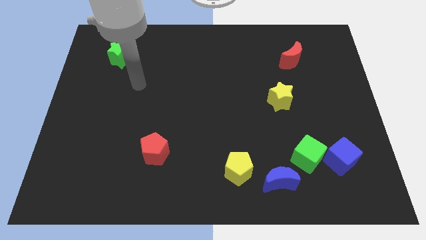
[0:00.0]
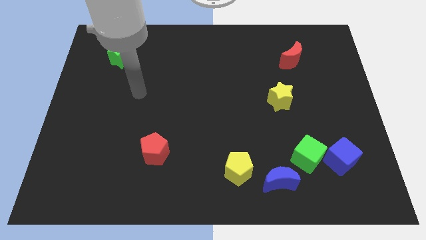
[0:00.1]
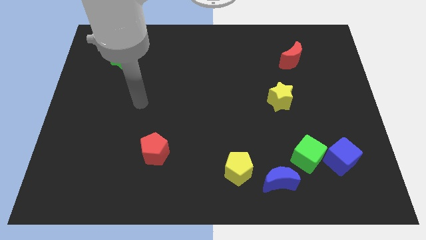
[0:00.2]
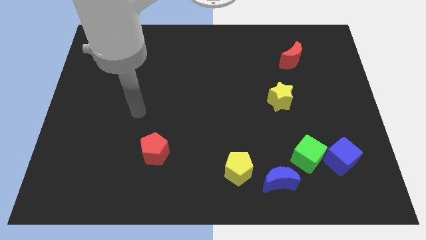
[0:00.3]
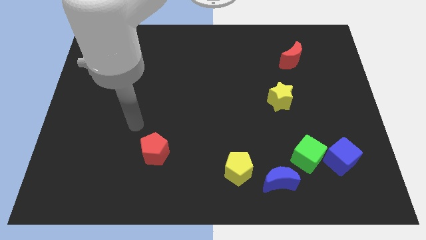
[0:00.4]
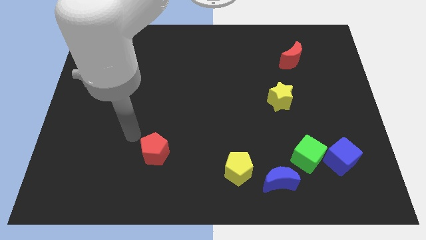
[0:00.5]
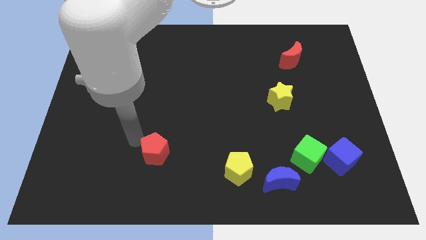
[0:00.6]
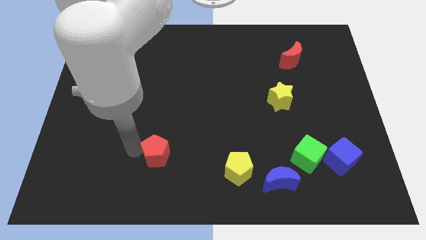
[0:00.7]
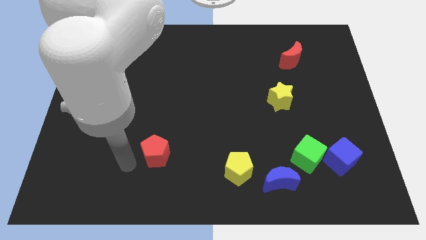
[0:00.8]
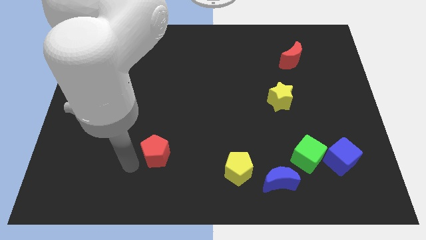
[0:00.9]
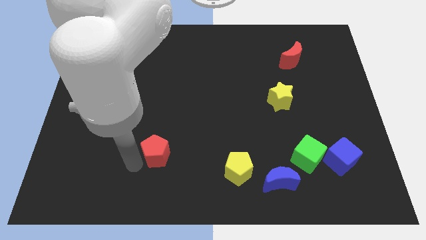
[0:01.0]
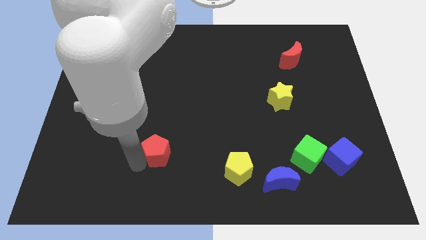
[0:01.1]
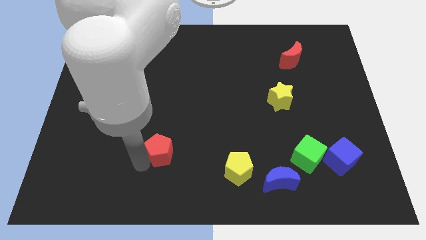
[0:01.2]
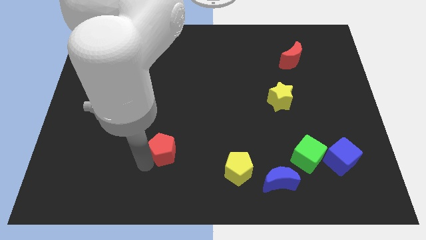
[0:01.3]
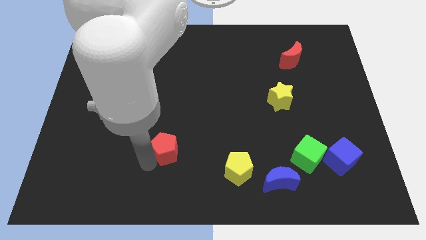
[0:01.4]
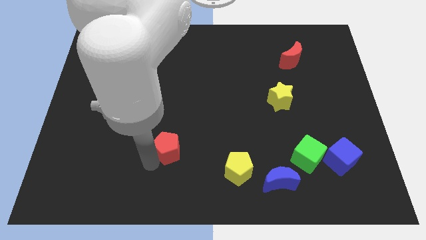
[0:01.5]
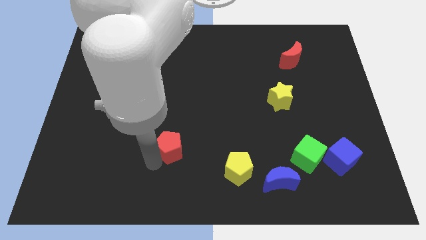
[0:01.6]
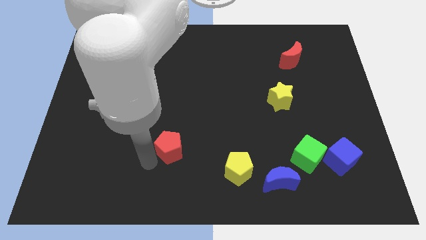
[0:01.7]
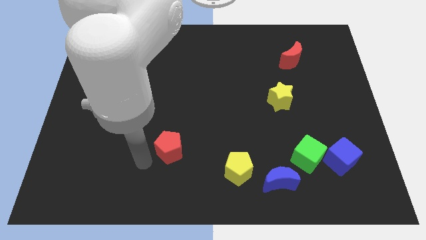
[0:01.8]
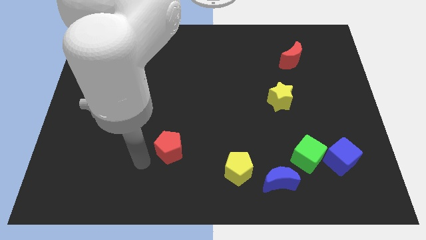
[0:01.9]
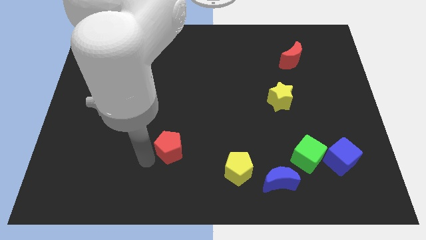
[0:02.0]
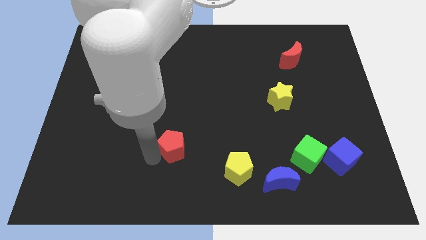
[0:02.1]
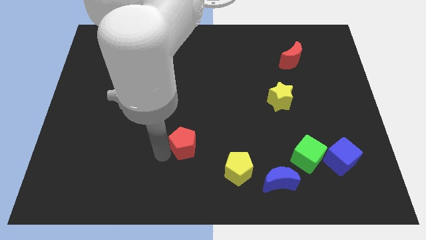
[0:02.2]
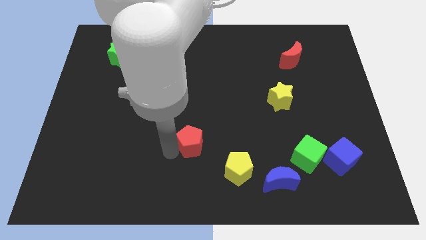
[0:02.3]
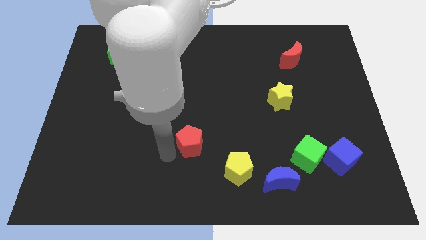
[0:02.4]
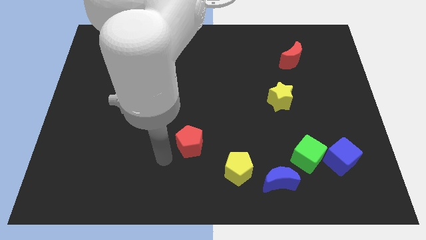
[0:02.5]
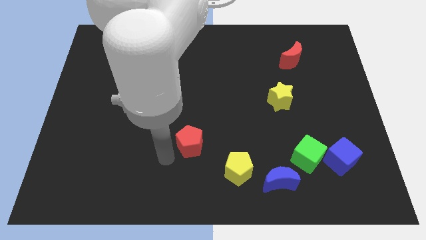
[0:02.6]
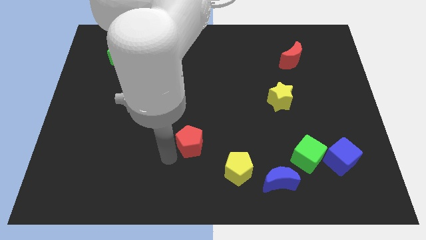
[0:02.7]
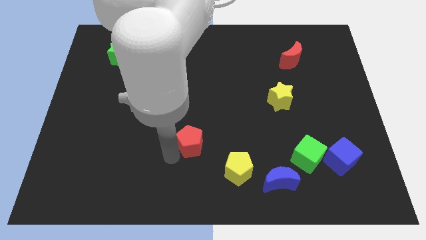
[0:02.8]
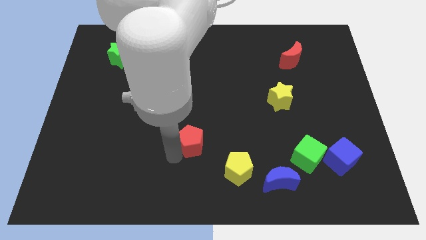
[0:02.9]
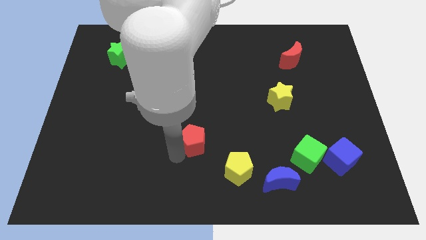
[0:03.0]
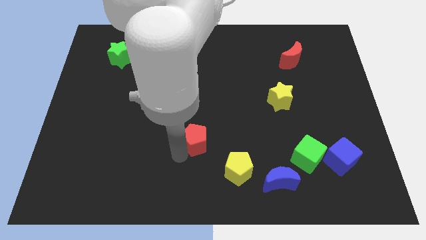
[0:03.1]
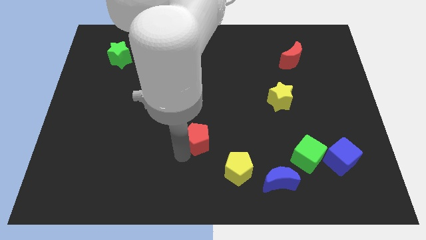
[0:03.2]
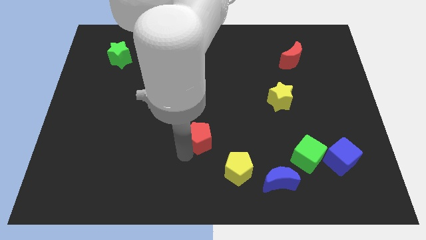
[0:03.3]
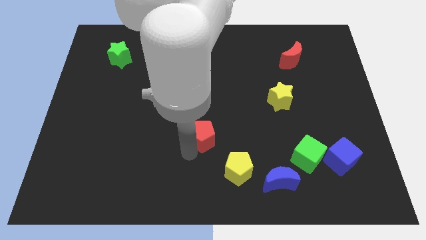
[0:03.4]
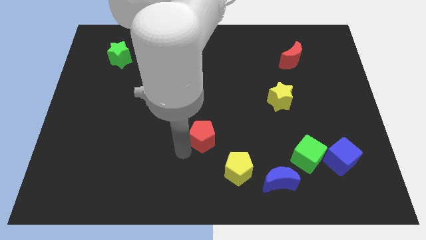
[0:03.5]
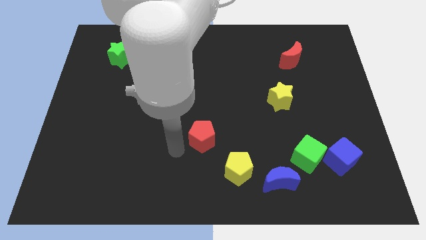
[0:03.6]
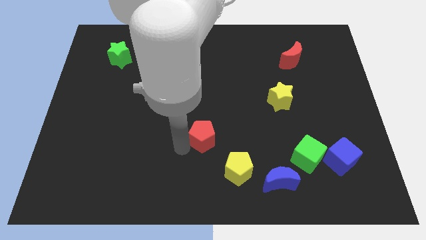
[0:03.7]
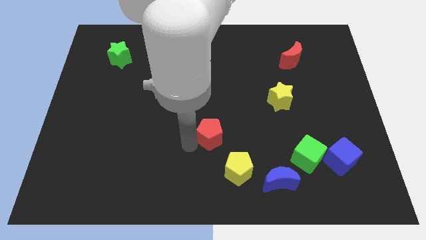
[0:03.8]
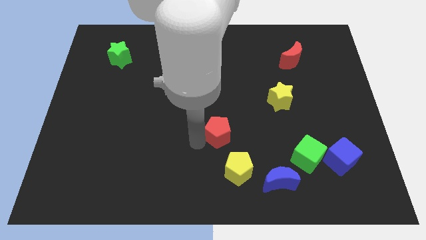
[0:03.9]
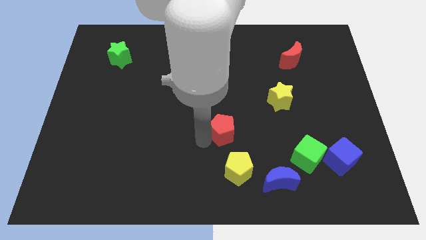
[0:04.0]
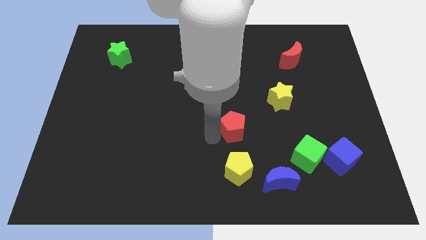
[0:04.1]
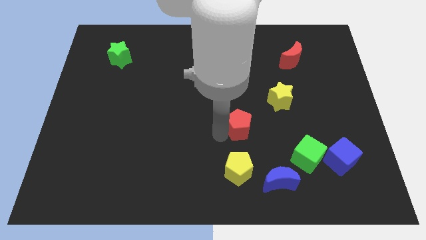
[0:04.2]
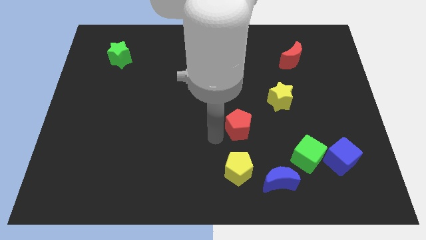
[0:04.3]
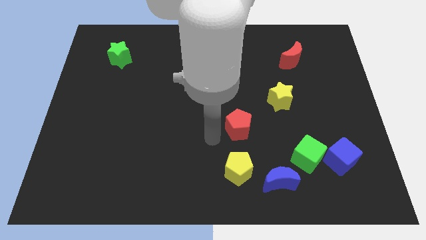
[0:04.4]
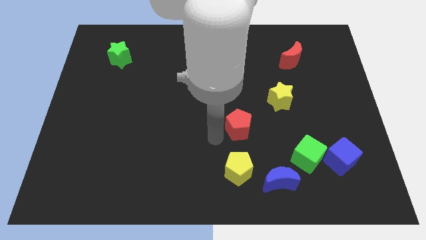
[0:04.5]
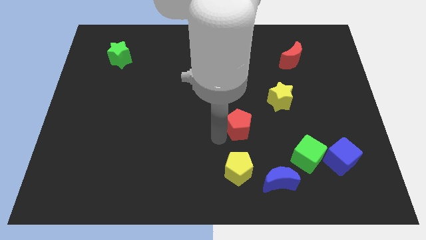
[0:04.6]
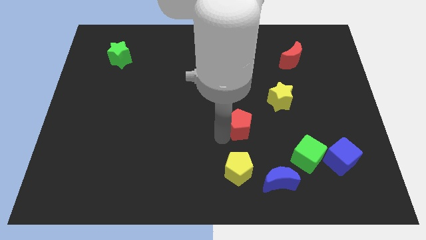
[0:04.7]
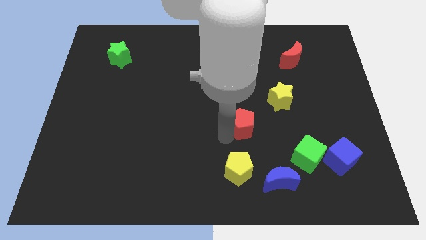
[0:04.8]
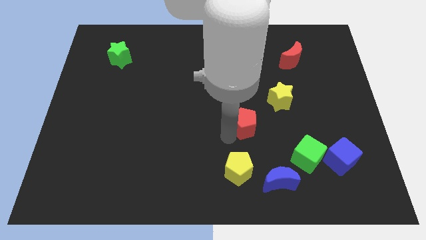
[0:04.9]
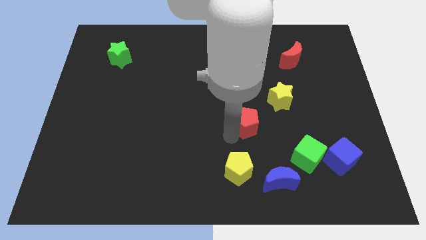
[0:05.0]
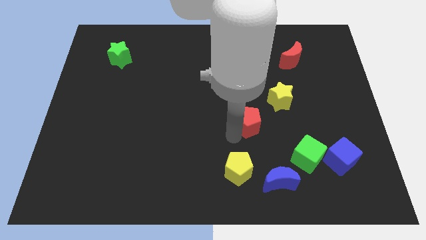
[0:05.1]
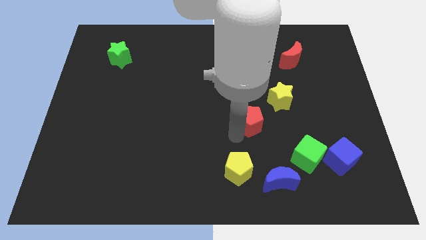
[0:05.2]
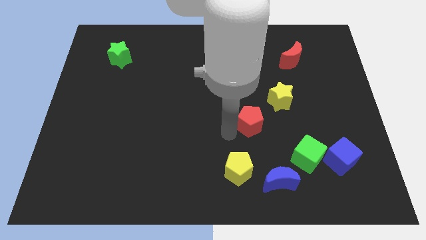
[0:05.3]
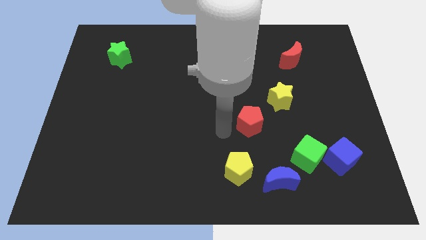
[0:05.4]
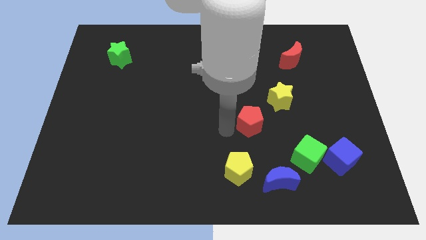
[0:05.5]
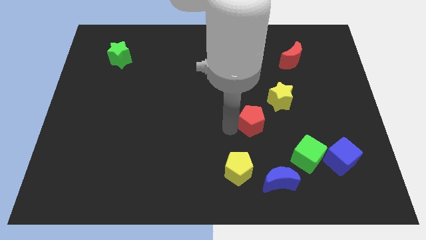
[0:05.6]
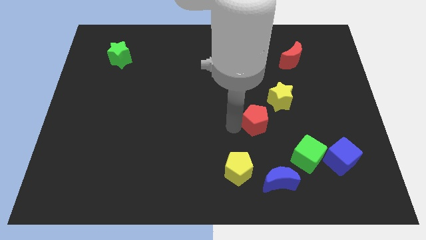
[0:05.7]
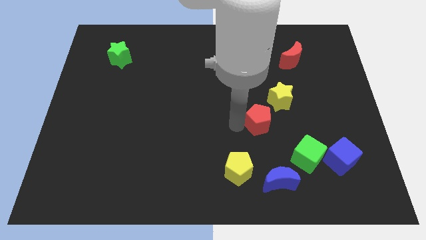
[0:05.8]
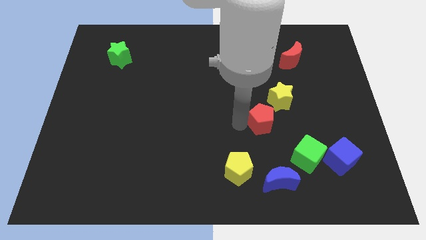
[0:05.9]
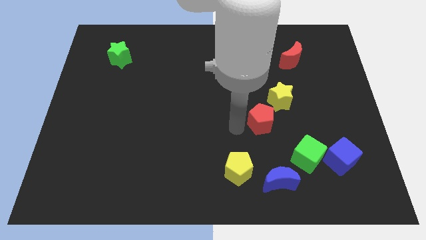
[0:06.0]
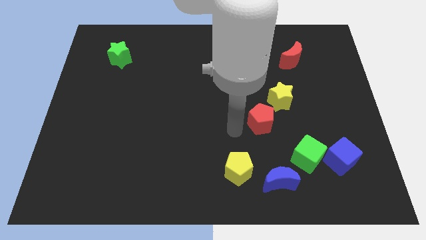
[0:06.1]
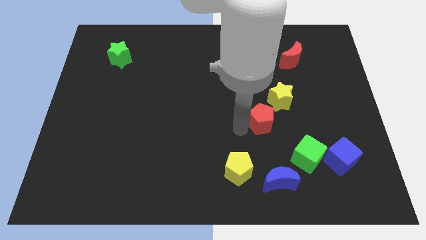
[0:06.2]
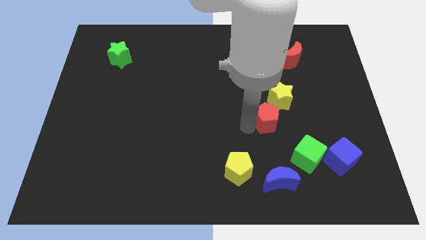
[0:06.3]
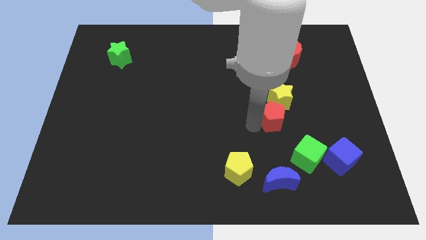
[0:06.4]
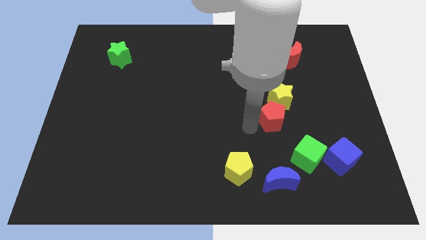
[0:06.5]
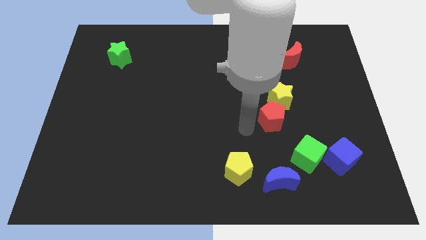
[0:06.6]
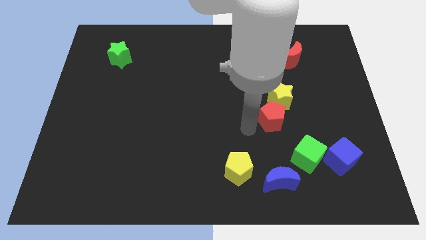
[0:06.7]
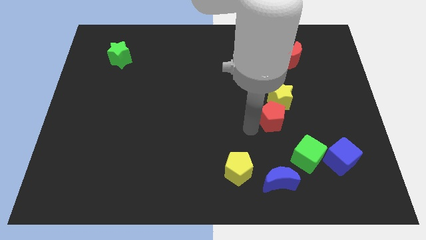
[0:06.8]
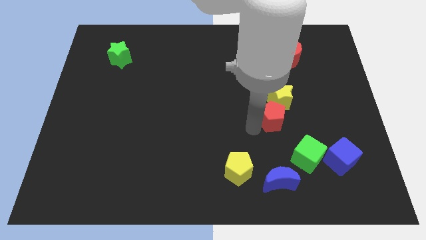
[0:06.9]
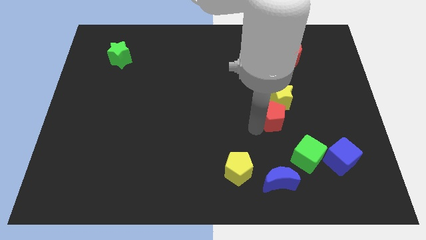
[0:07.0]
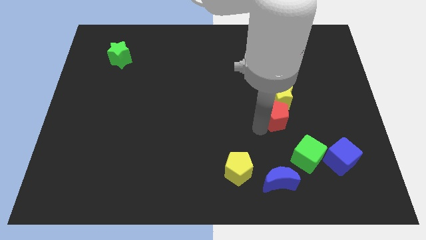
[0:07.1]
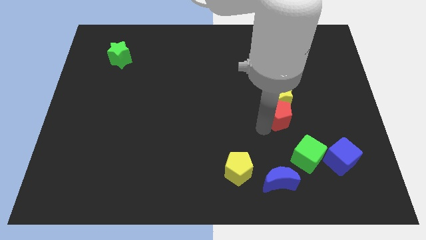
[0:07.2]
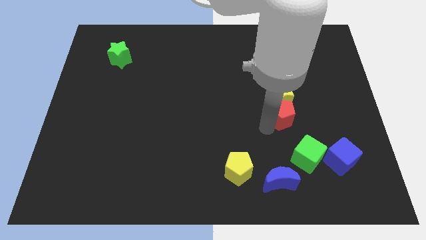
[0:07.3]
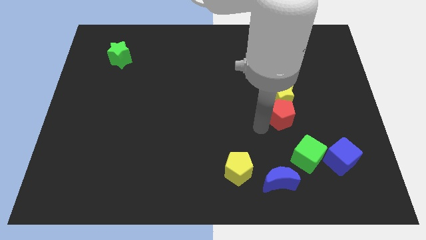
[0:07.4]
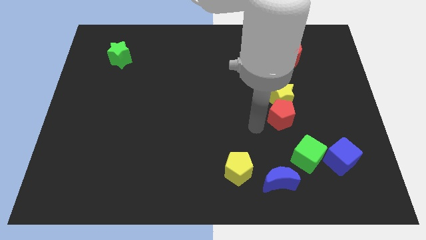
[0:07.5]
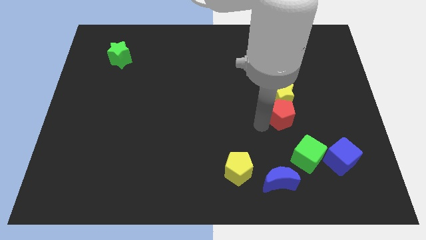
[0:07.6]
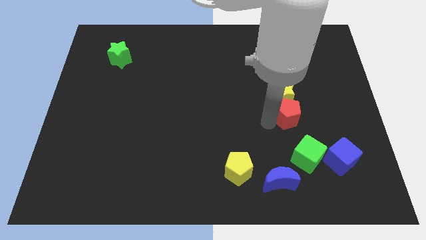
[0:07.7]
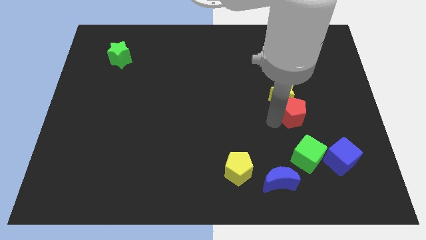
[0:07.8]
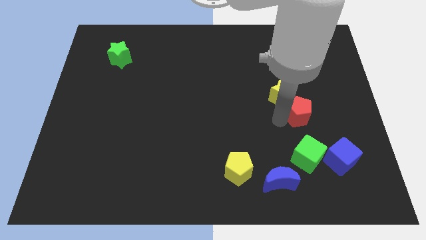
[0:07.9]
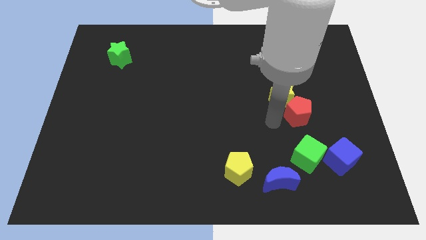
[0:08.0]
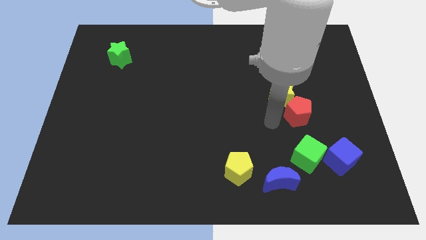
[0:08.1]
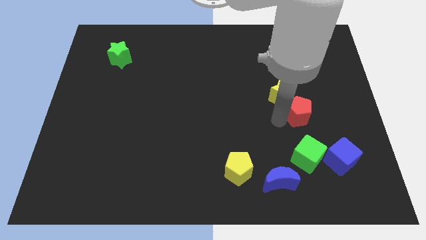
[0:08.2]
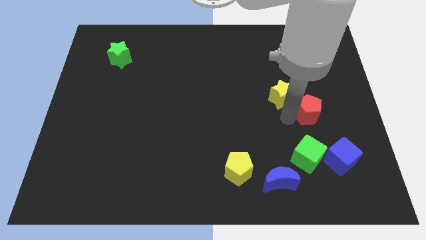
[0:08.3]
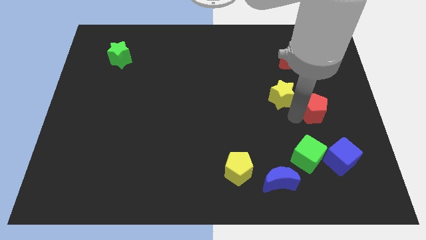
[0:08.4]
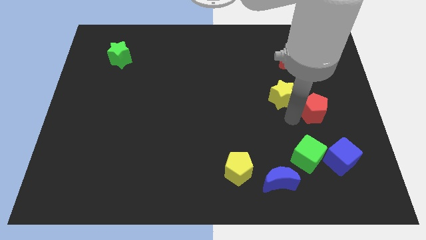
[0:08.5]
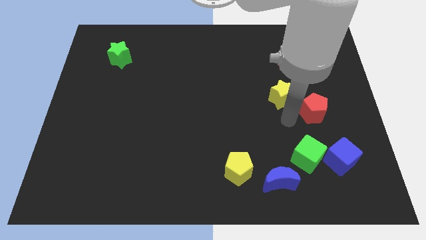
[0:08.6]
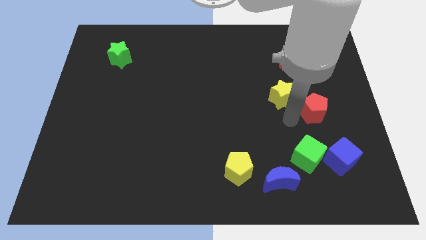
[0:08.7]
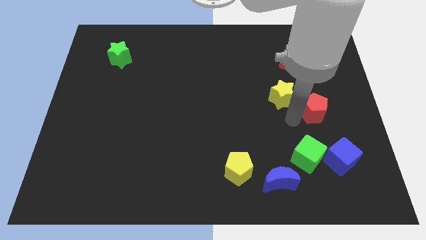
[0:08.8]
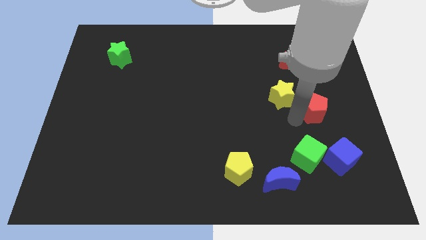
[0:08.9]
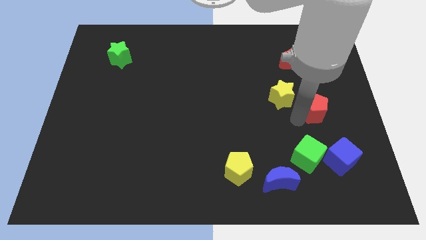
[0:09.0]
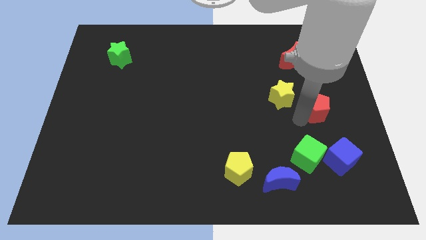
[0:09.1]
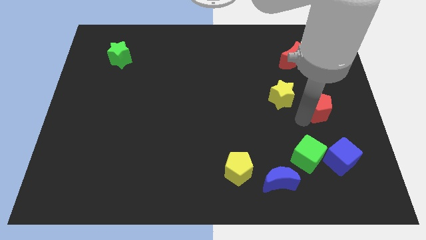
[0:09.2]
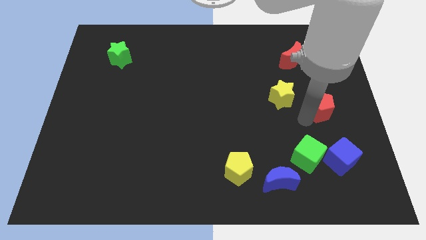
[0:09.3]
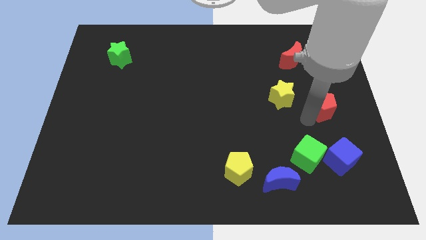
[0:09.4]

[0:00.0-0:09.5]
put the red pentagon to the right side of the board
